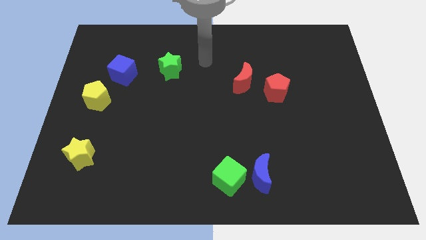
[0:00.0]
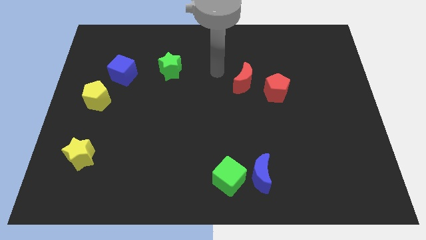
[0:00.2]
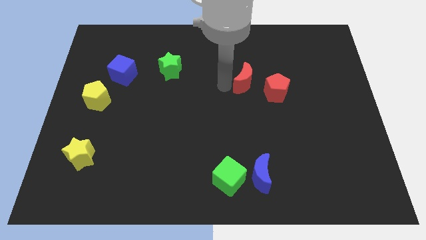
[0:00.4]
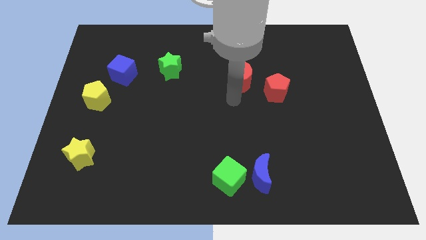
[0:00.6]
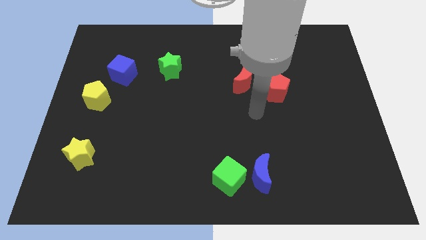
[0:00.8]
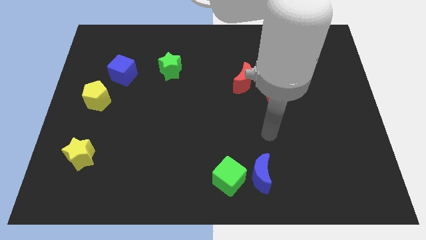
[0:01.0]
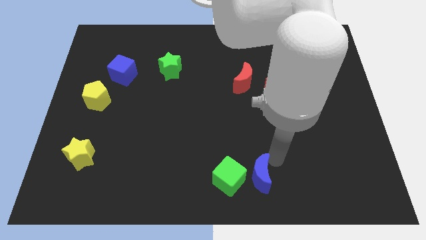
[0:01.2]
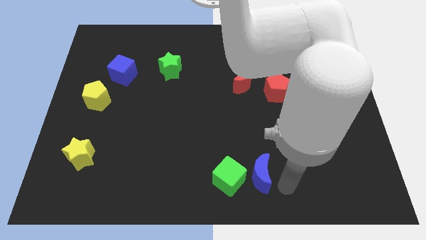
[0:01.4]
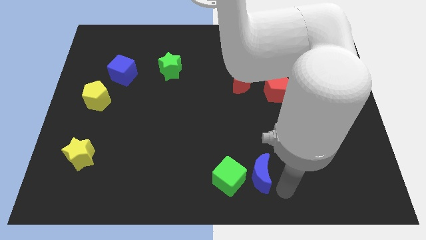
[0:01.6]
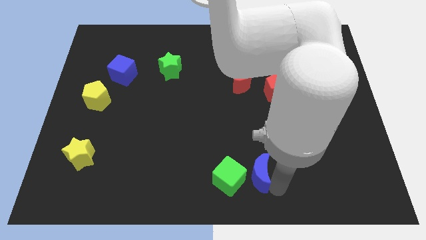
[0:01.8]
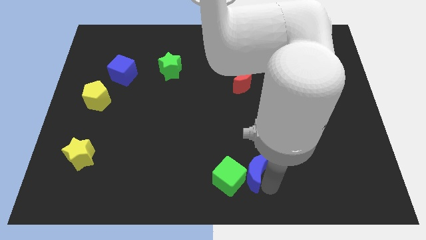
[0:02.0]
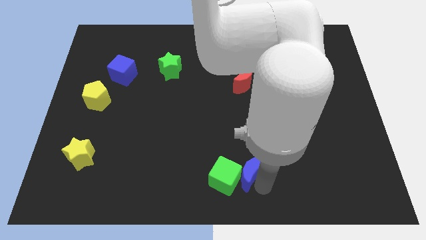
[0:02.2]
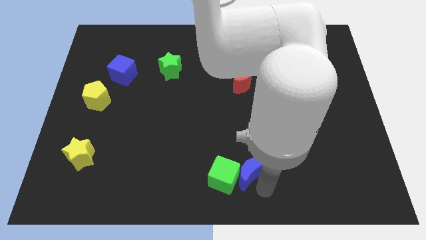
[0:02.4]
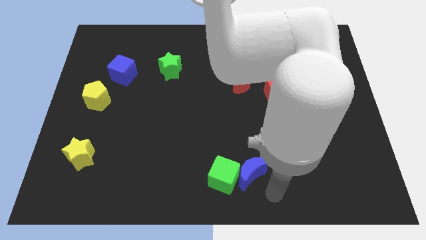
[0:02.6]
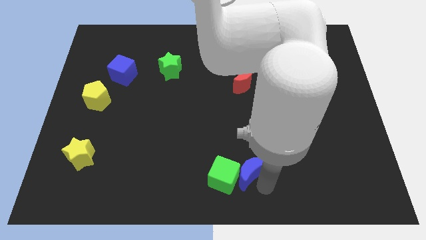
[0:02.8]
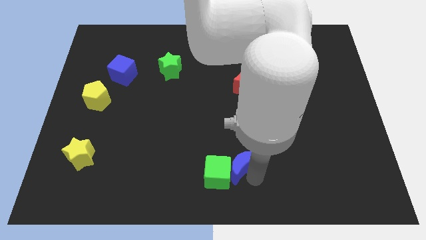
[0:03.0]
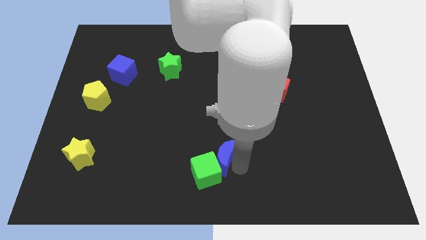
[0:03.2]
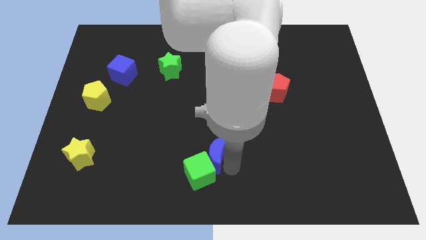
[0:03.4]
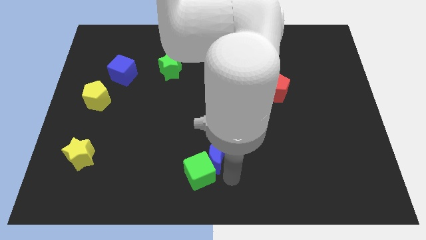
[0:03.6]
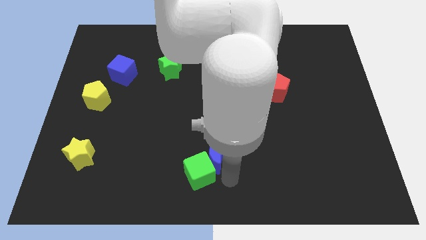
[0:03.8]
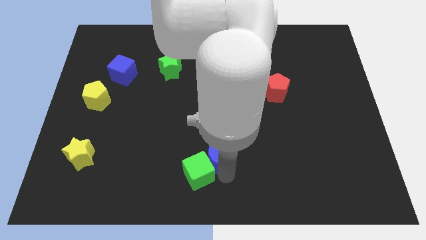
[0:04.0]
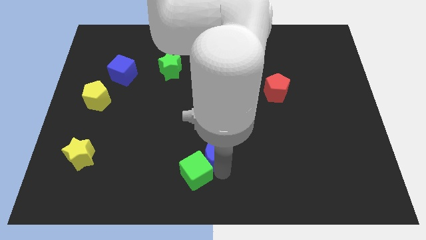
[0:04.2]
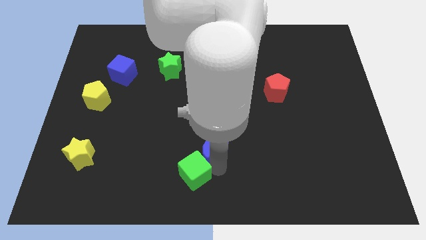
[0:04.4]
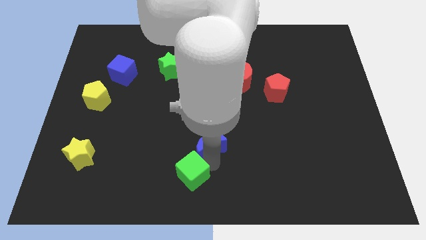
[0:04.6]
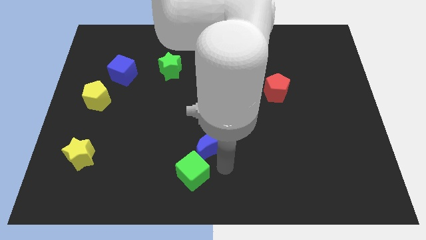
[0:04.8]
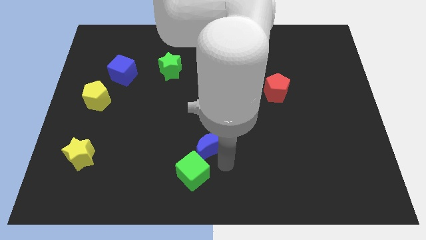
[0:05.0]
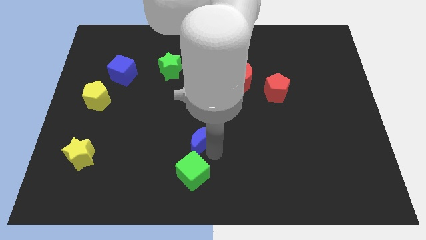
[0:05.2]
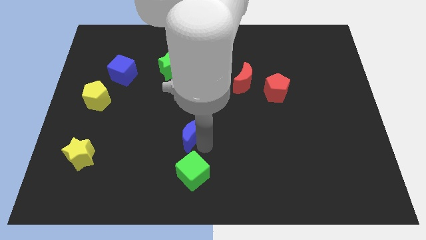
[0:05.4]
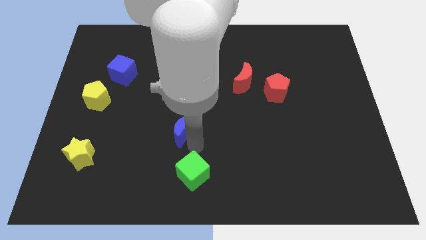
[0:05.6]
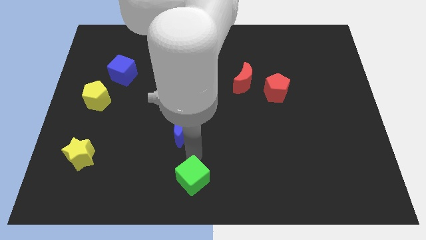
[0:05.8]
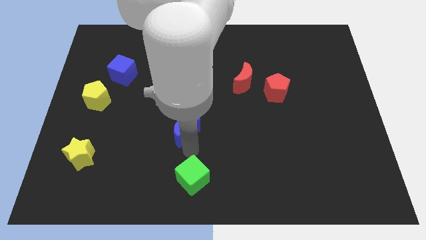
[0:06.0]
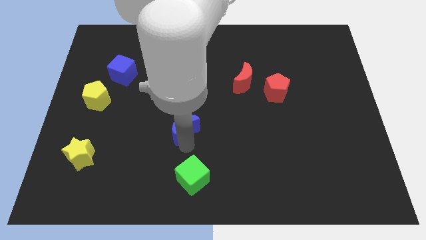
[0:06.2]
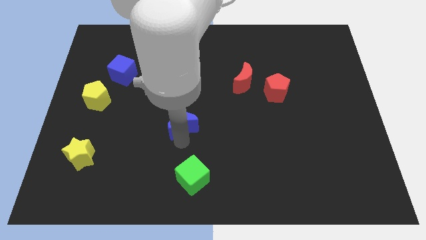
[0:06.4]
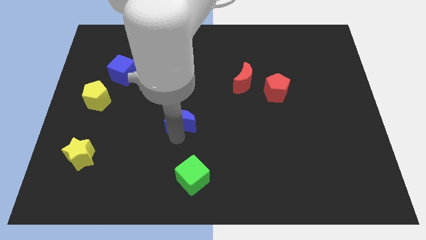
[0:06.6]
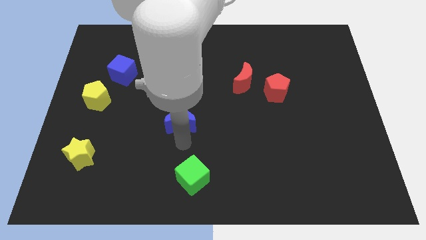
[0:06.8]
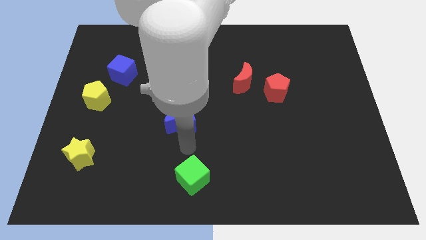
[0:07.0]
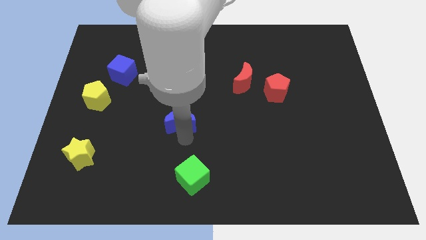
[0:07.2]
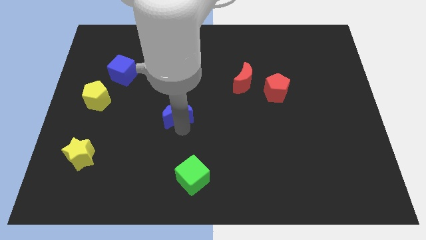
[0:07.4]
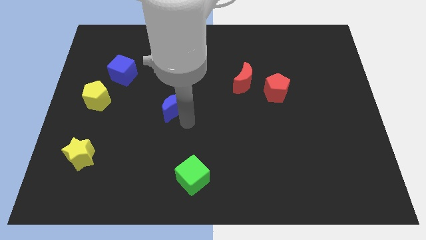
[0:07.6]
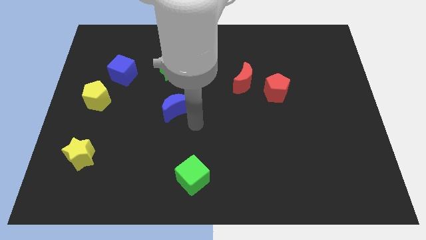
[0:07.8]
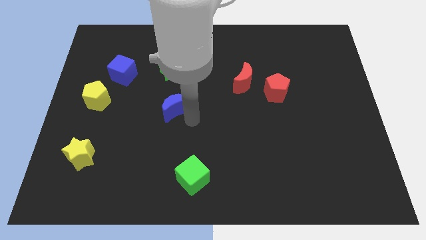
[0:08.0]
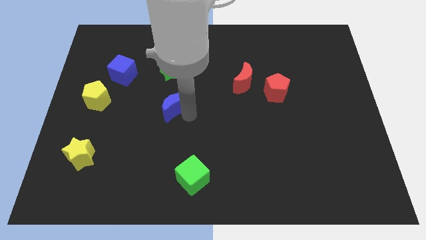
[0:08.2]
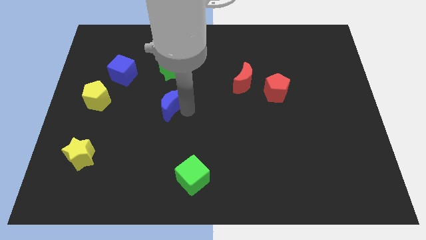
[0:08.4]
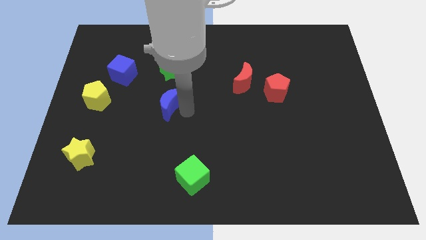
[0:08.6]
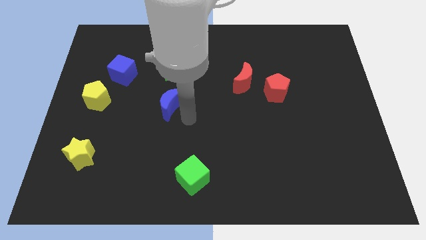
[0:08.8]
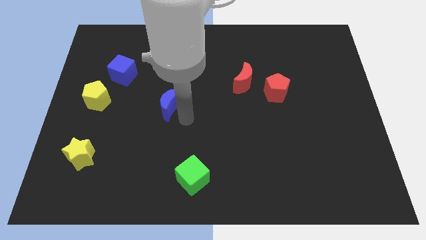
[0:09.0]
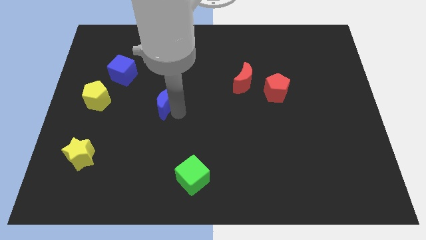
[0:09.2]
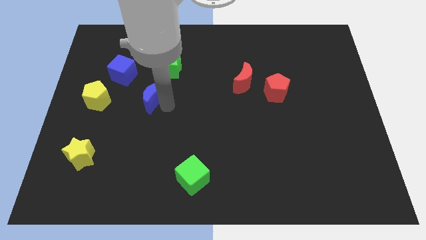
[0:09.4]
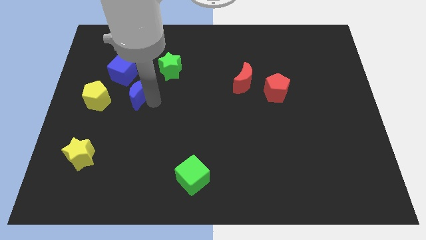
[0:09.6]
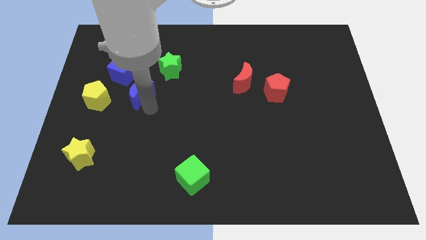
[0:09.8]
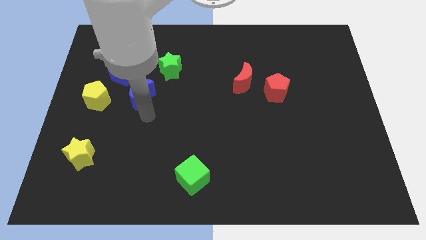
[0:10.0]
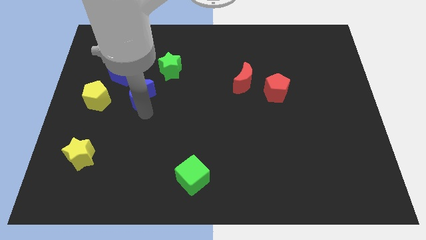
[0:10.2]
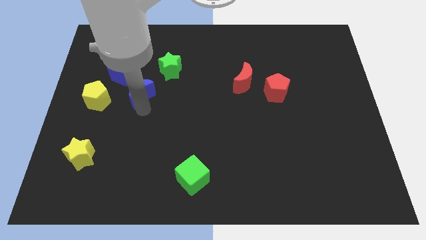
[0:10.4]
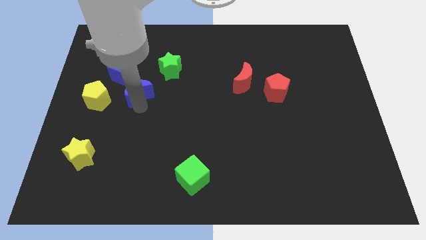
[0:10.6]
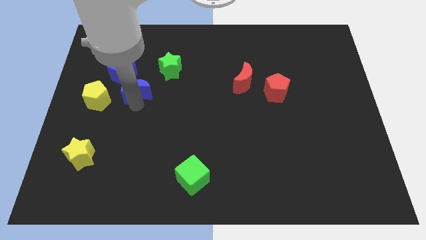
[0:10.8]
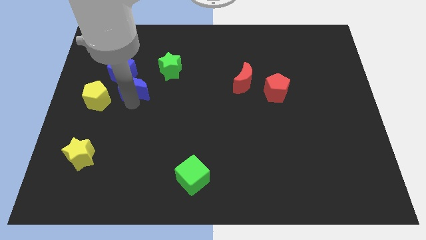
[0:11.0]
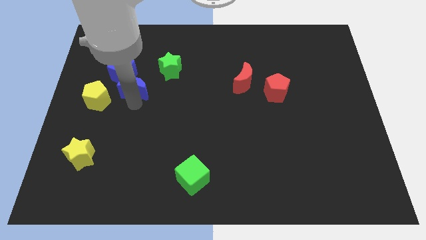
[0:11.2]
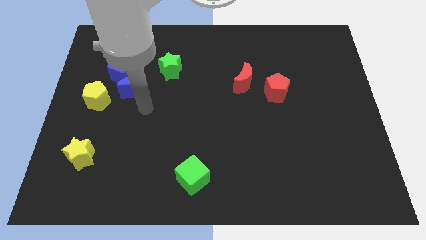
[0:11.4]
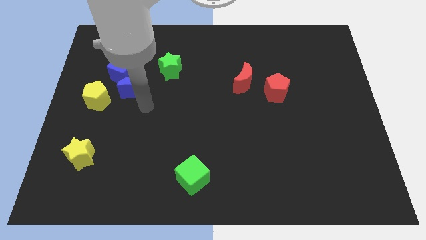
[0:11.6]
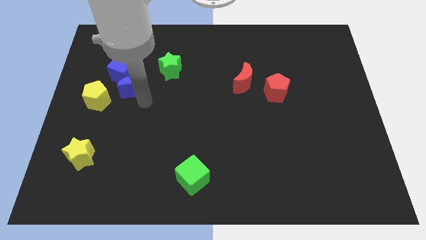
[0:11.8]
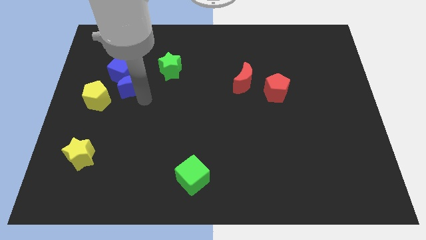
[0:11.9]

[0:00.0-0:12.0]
move the blue moon towards the blue cube

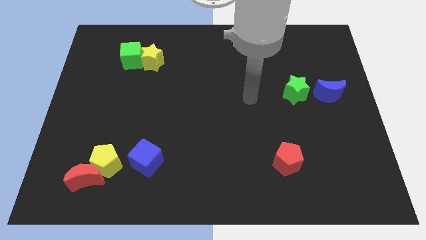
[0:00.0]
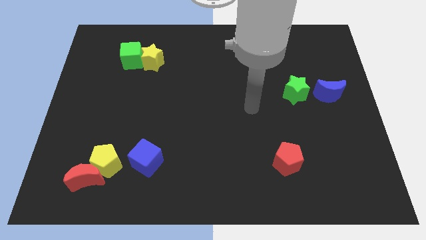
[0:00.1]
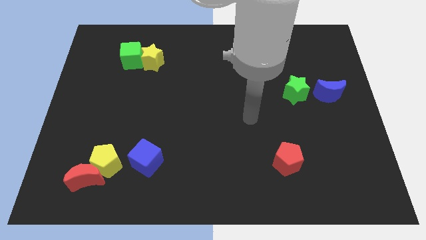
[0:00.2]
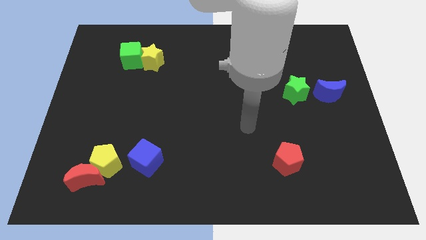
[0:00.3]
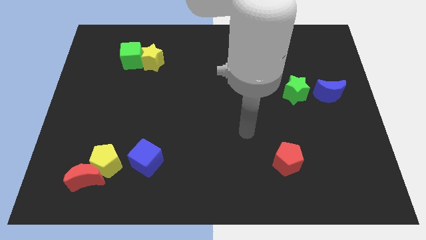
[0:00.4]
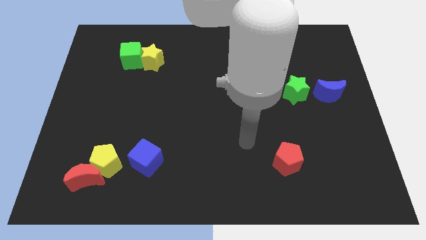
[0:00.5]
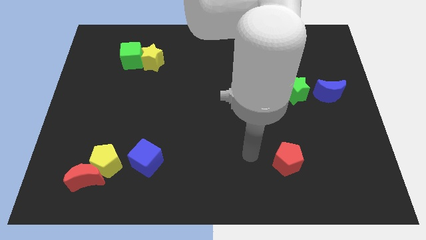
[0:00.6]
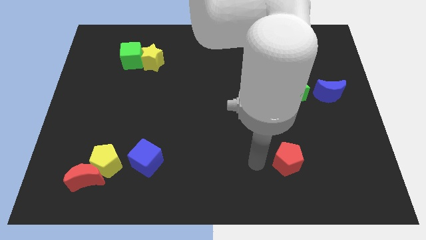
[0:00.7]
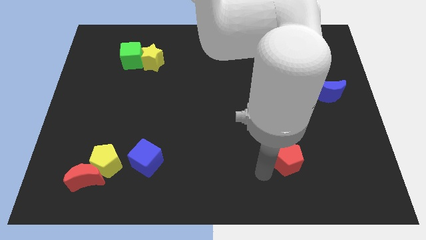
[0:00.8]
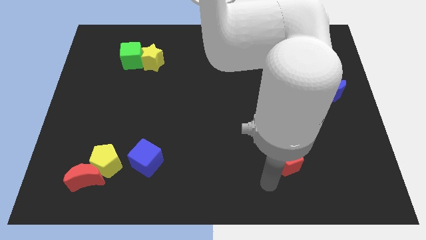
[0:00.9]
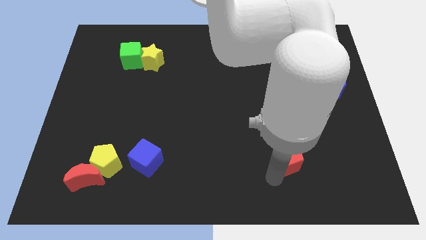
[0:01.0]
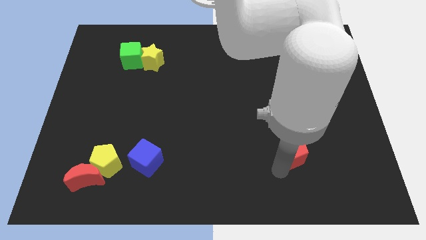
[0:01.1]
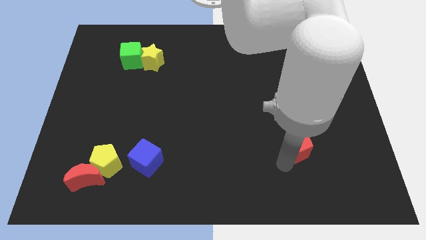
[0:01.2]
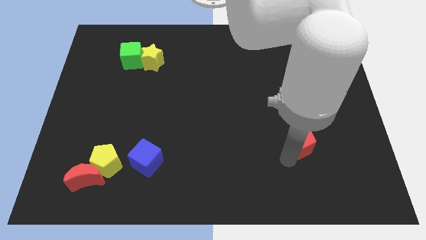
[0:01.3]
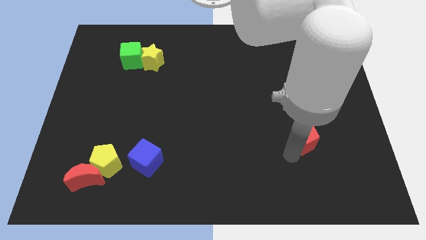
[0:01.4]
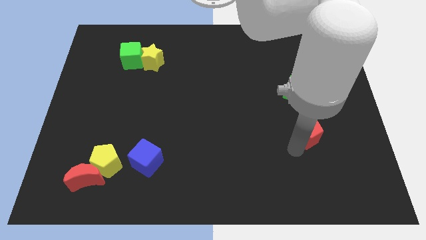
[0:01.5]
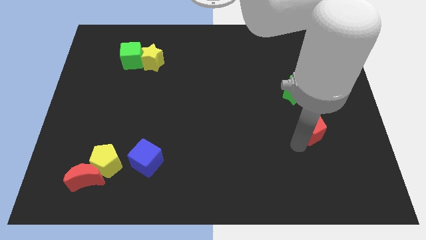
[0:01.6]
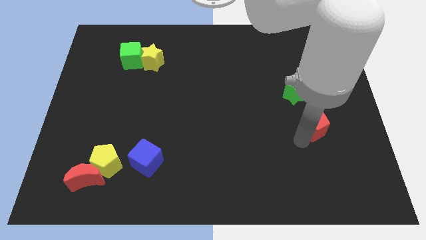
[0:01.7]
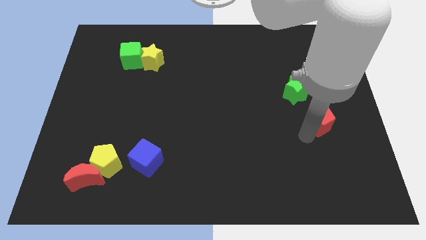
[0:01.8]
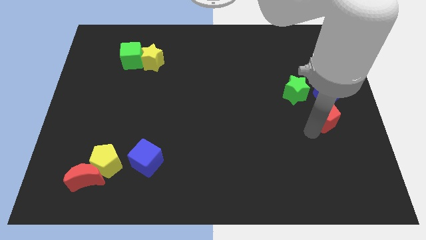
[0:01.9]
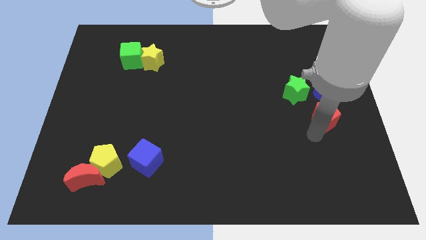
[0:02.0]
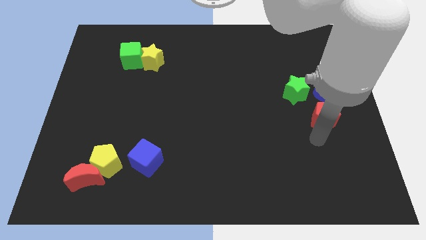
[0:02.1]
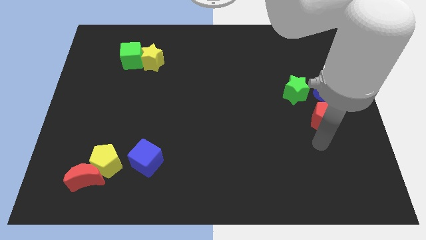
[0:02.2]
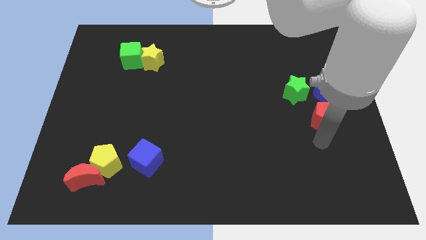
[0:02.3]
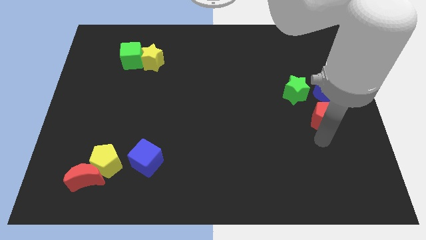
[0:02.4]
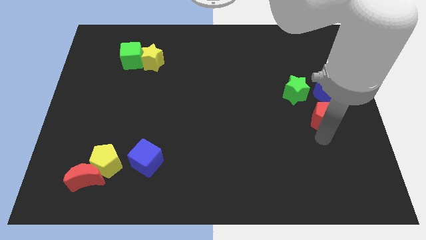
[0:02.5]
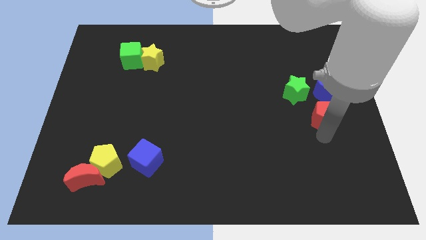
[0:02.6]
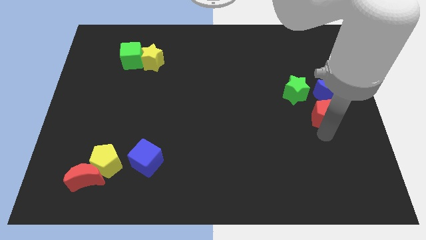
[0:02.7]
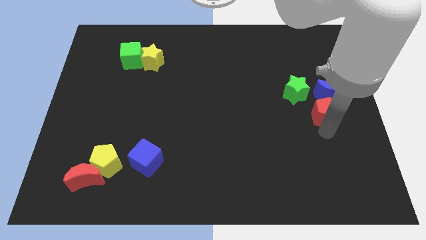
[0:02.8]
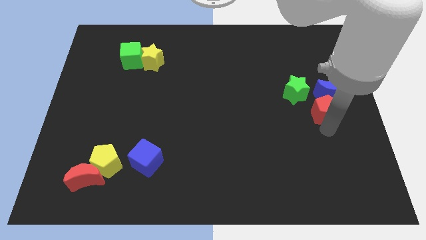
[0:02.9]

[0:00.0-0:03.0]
put the red pentagon close to the blue moon
